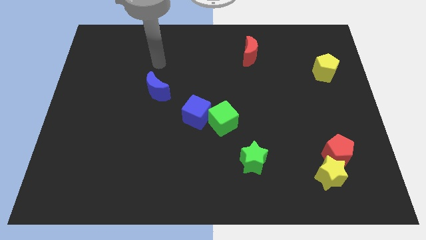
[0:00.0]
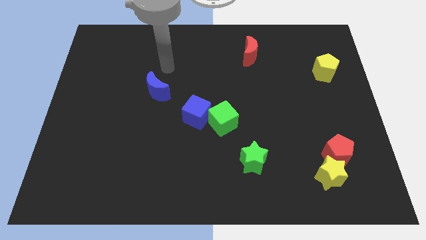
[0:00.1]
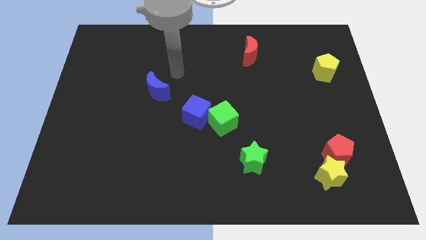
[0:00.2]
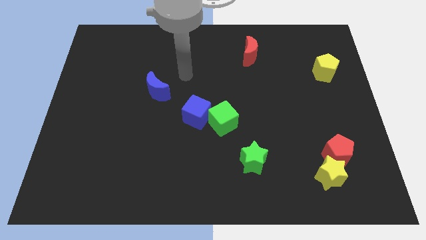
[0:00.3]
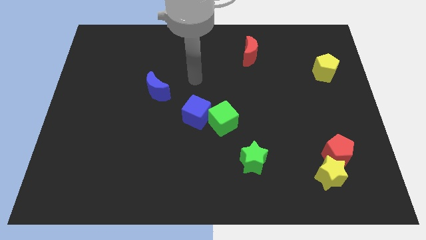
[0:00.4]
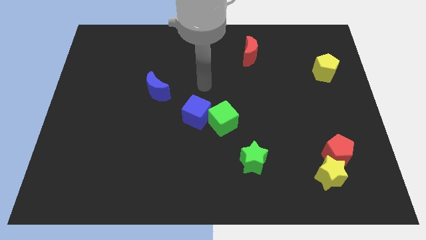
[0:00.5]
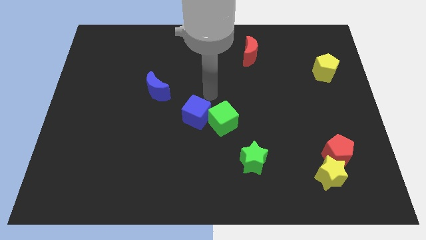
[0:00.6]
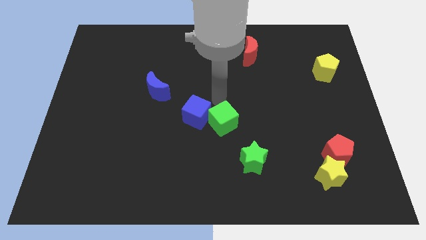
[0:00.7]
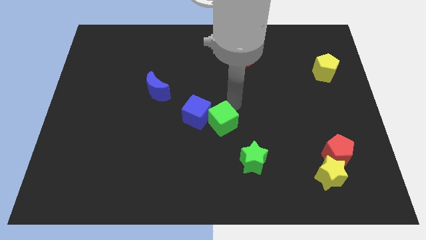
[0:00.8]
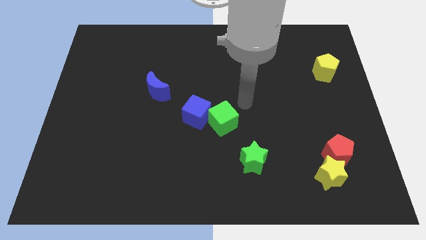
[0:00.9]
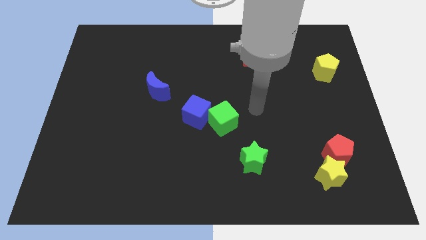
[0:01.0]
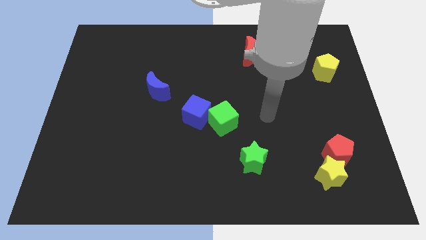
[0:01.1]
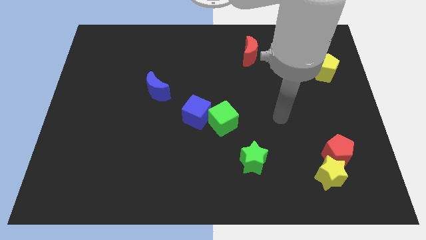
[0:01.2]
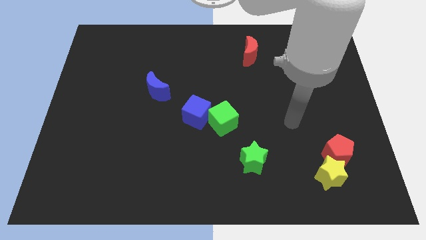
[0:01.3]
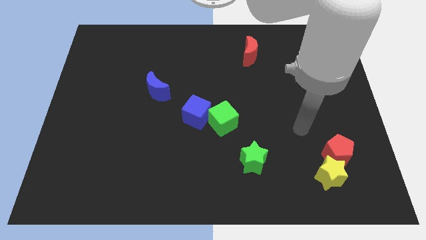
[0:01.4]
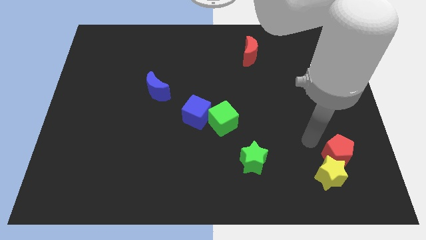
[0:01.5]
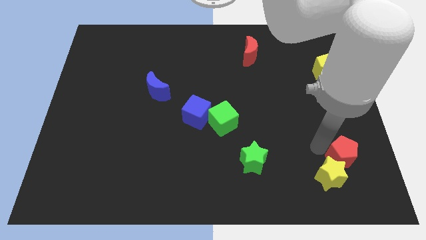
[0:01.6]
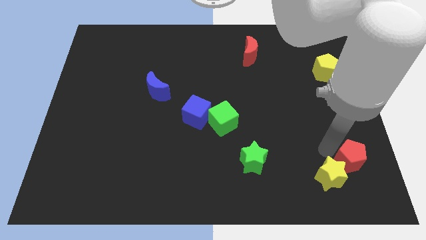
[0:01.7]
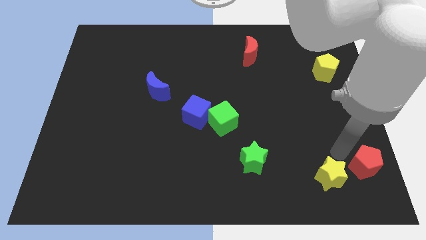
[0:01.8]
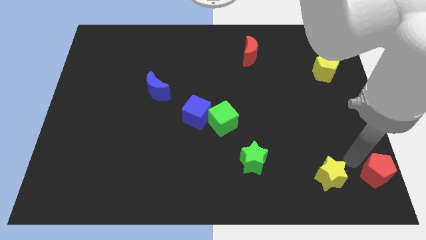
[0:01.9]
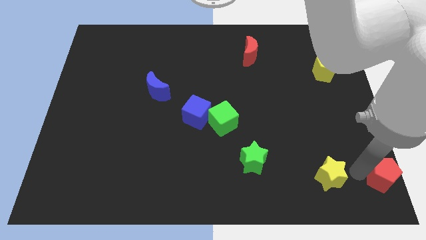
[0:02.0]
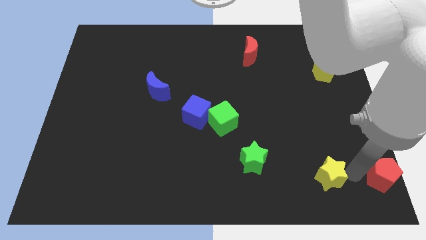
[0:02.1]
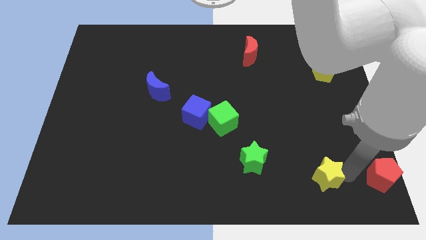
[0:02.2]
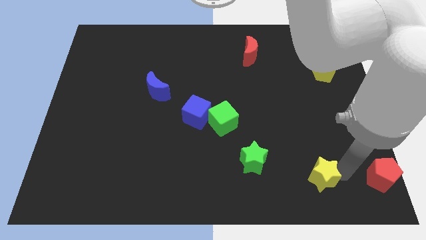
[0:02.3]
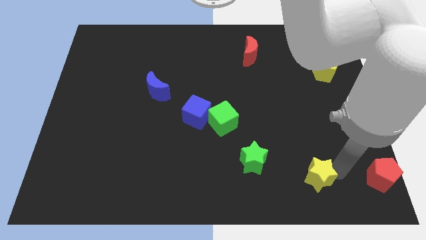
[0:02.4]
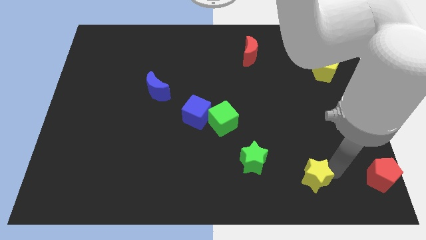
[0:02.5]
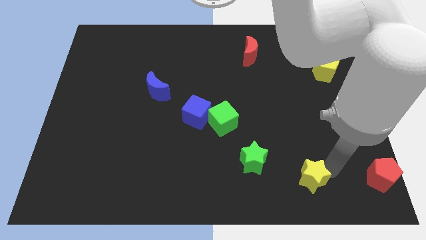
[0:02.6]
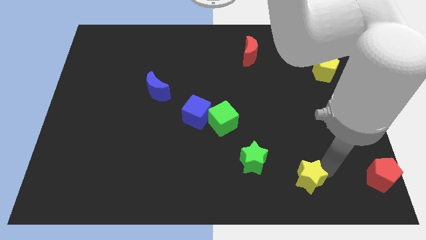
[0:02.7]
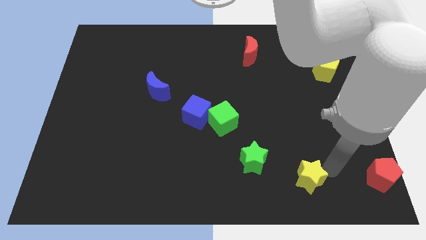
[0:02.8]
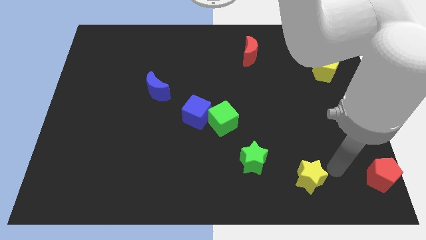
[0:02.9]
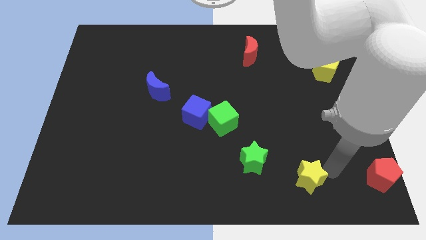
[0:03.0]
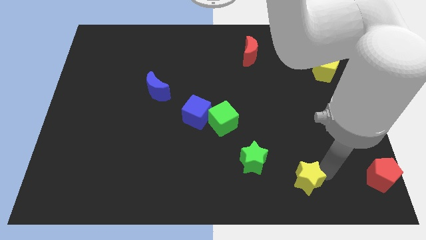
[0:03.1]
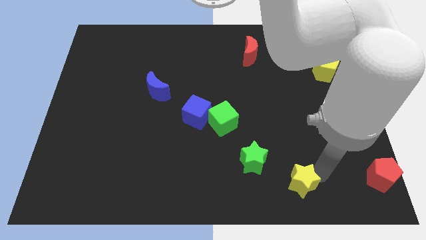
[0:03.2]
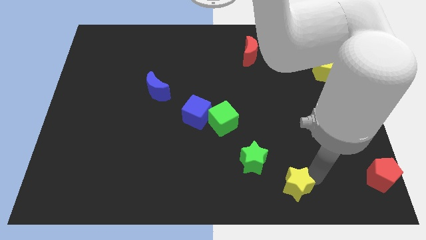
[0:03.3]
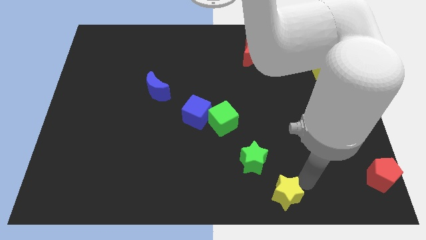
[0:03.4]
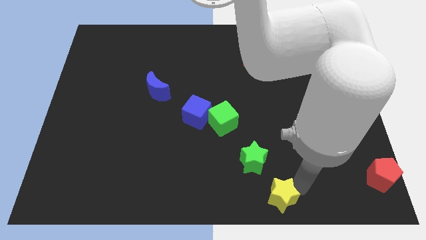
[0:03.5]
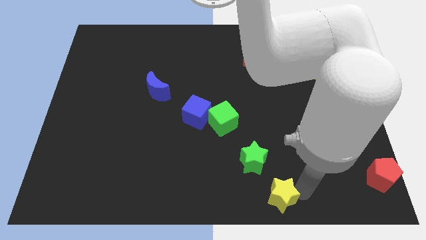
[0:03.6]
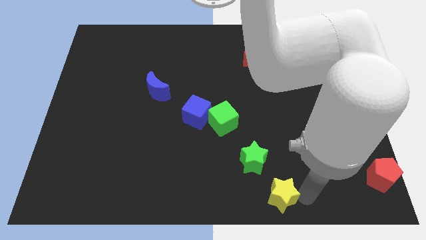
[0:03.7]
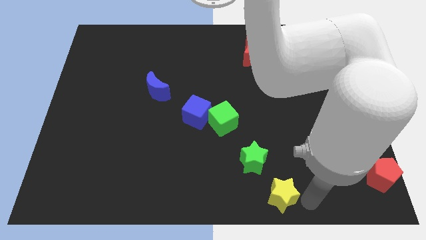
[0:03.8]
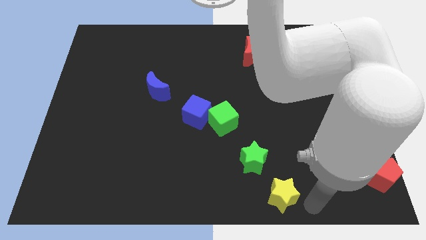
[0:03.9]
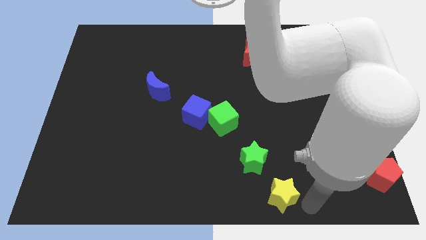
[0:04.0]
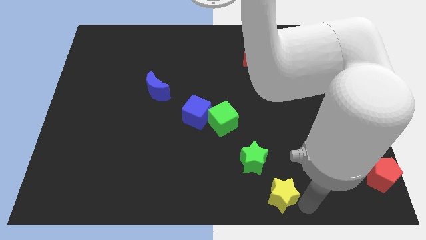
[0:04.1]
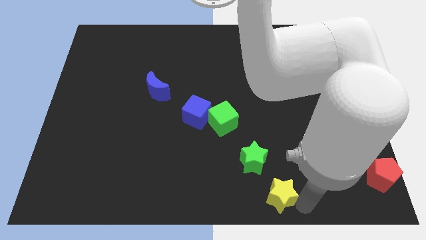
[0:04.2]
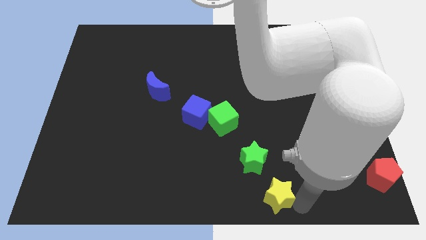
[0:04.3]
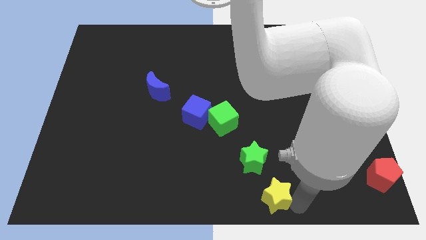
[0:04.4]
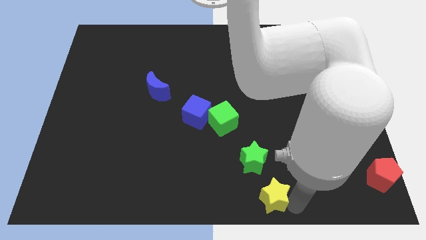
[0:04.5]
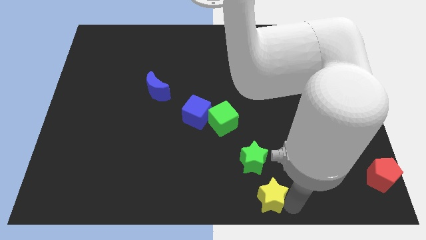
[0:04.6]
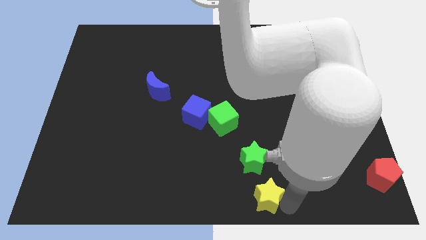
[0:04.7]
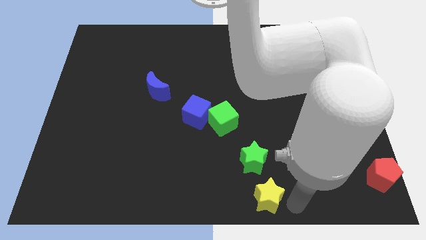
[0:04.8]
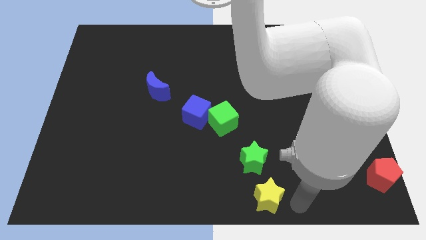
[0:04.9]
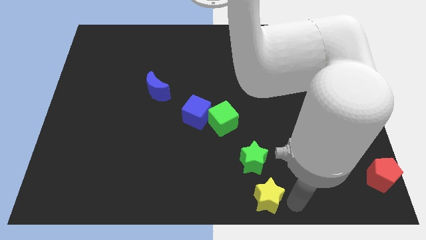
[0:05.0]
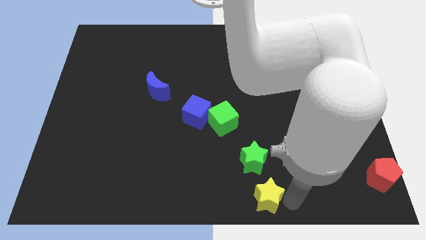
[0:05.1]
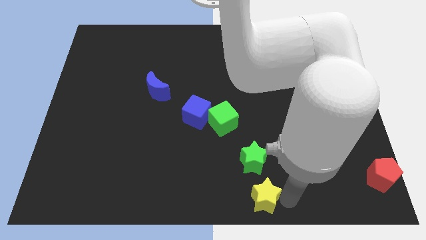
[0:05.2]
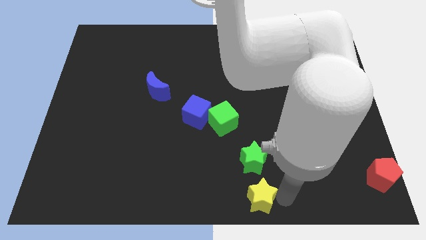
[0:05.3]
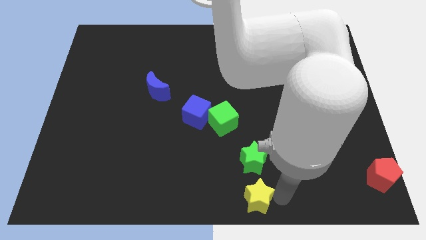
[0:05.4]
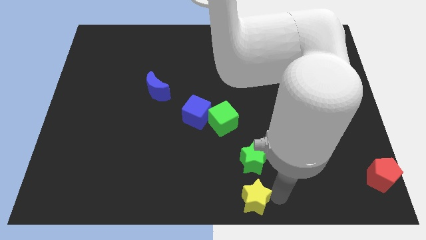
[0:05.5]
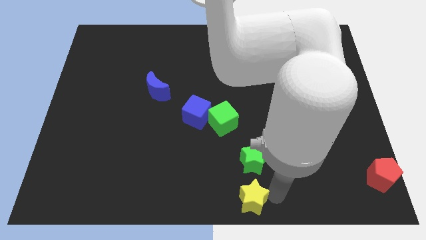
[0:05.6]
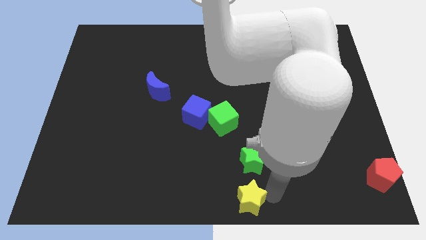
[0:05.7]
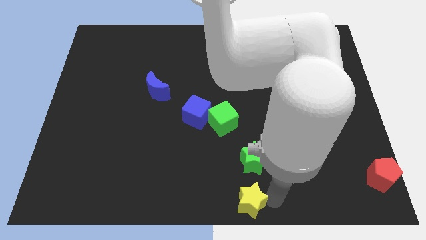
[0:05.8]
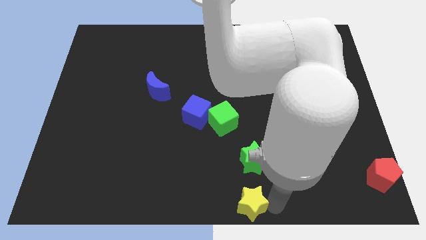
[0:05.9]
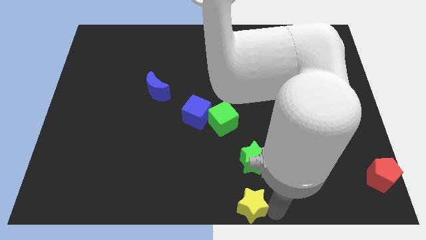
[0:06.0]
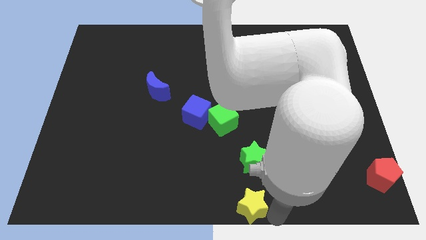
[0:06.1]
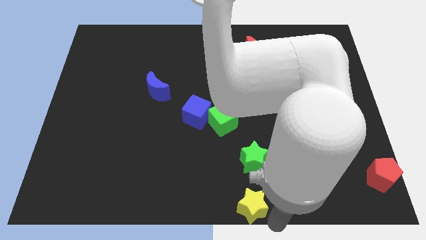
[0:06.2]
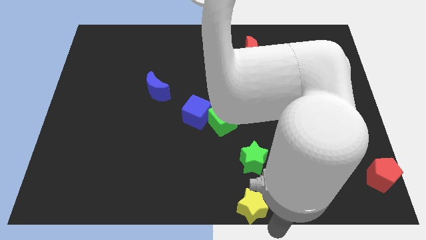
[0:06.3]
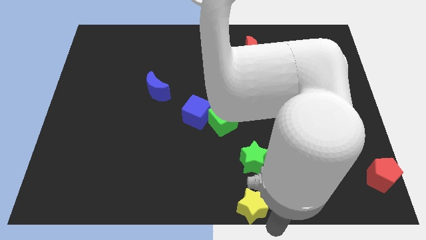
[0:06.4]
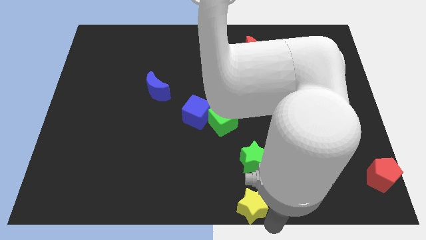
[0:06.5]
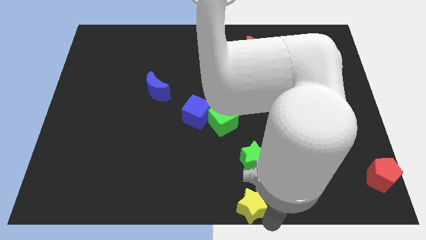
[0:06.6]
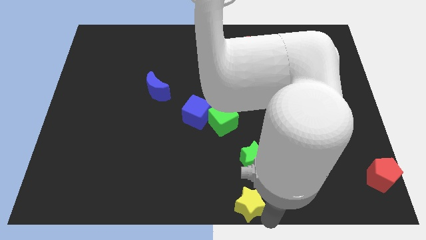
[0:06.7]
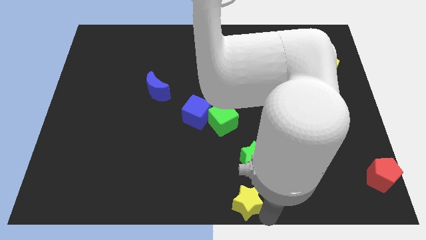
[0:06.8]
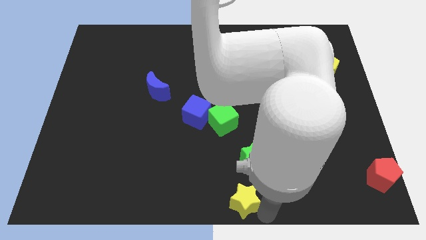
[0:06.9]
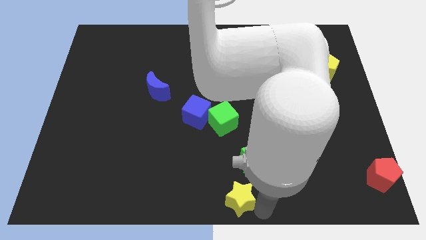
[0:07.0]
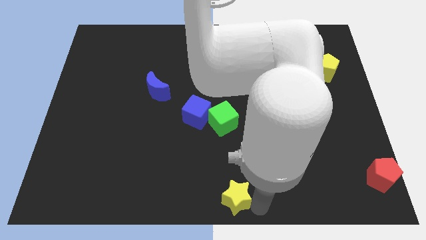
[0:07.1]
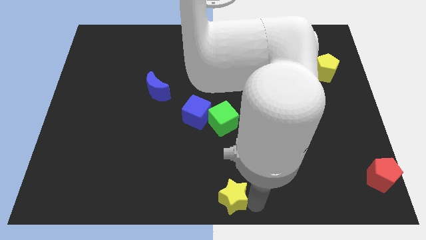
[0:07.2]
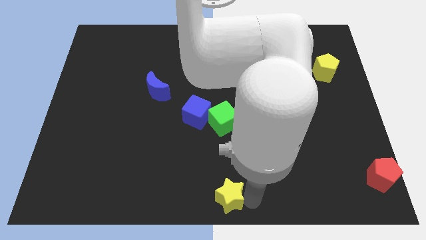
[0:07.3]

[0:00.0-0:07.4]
push the yellow star left

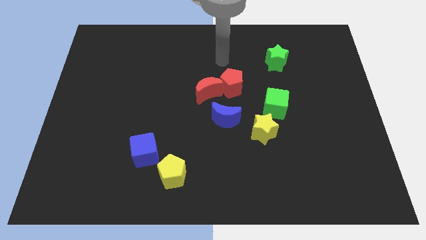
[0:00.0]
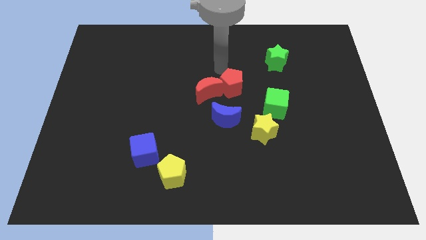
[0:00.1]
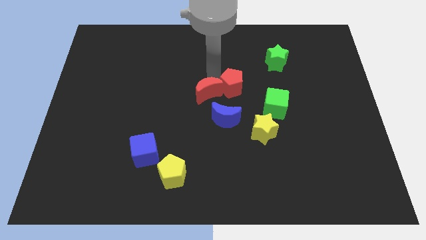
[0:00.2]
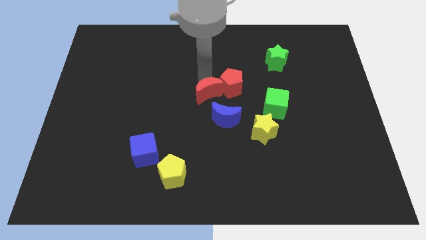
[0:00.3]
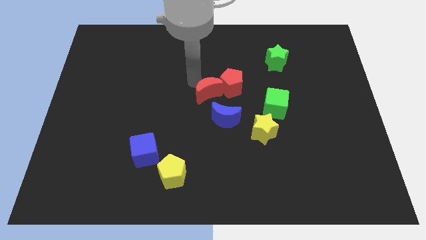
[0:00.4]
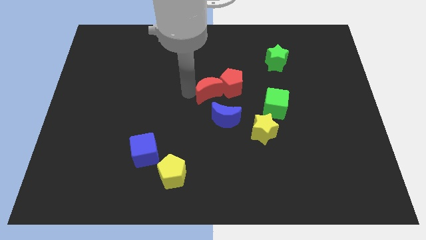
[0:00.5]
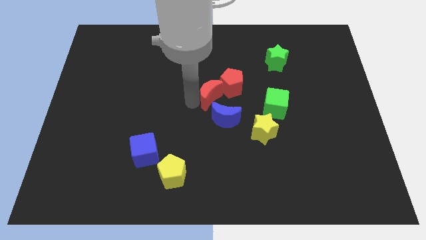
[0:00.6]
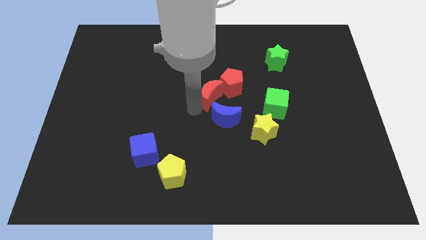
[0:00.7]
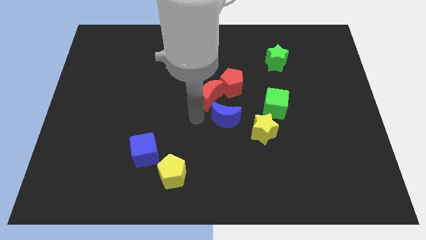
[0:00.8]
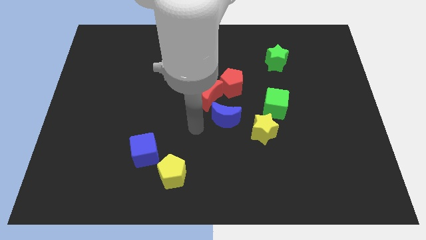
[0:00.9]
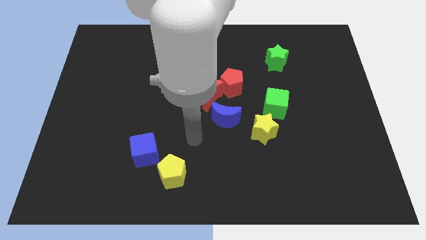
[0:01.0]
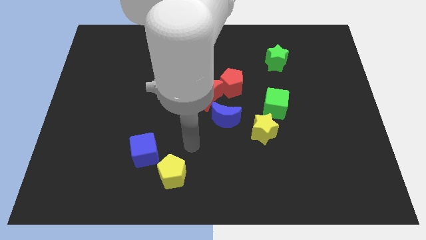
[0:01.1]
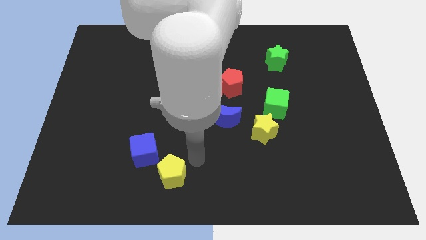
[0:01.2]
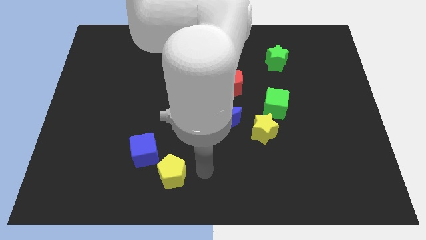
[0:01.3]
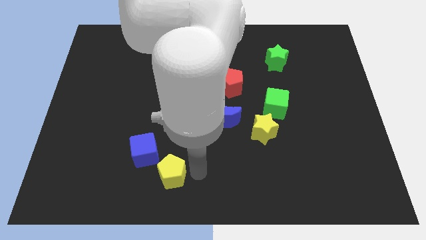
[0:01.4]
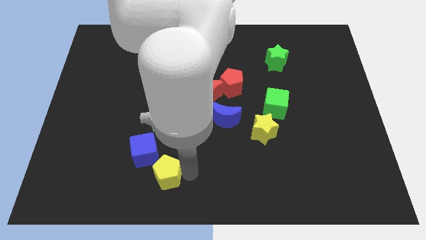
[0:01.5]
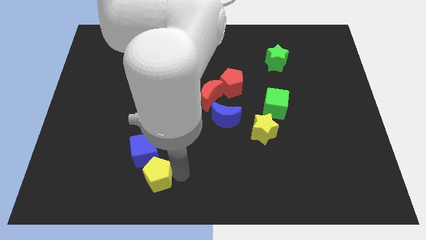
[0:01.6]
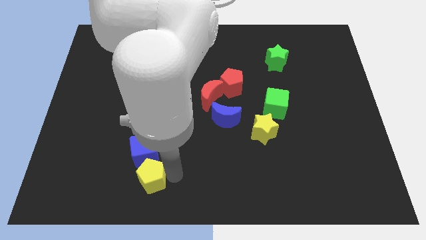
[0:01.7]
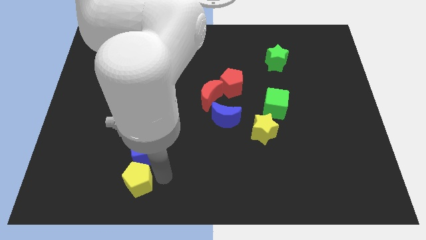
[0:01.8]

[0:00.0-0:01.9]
slightly move the yellow pentagon to the left
